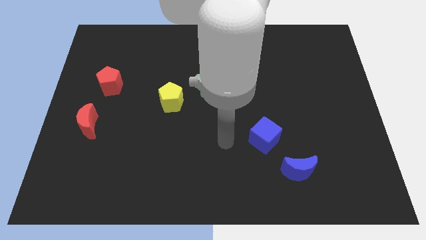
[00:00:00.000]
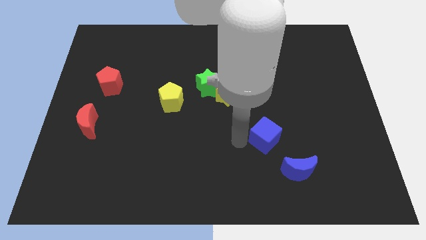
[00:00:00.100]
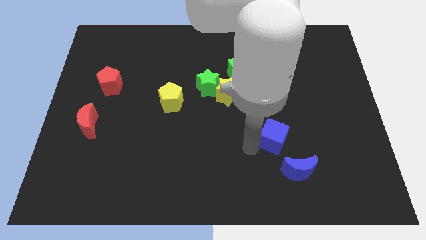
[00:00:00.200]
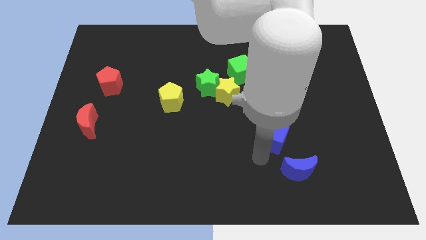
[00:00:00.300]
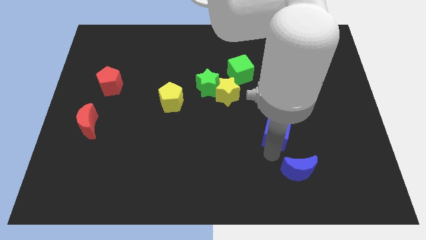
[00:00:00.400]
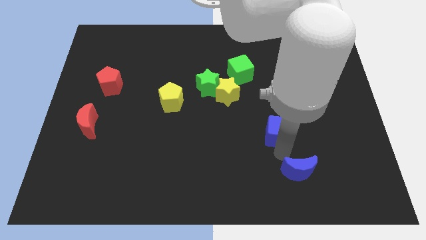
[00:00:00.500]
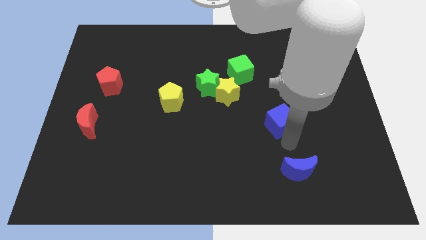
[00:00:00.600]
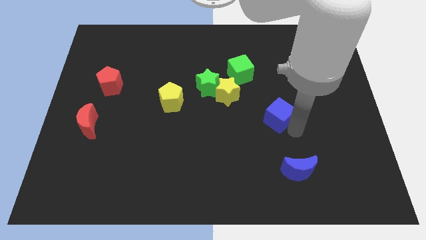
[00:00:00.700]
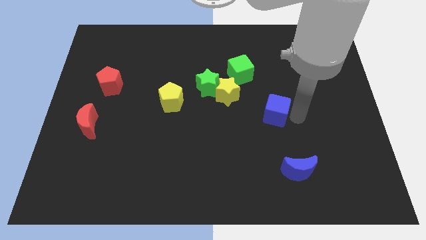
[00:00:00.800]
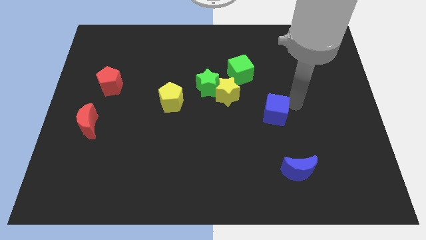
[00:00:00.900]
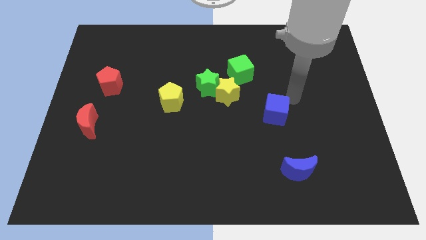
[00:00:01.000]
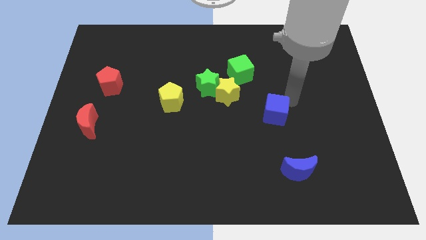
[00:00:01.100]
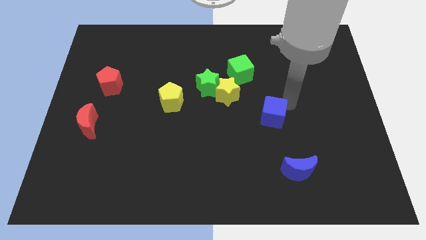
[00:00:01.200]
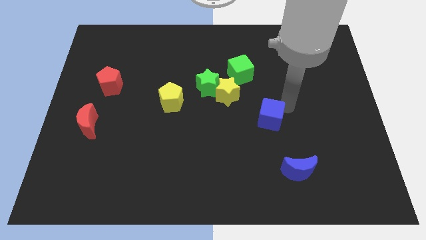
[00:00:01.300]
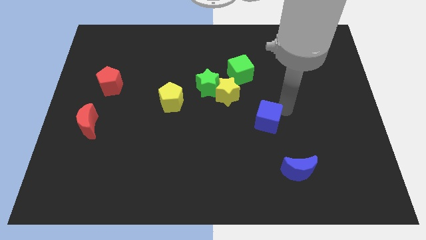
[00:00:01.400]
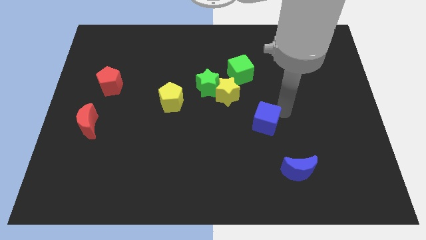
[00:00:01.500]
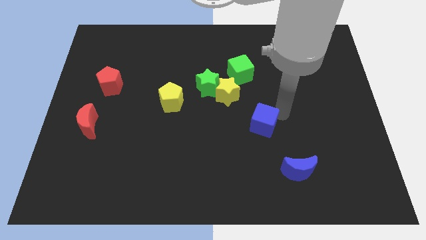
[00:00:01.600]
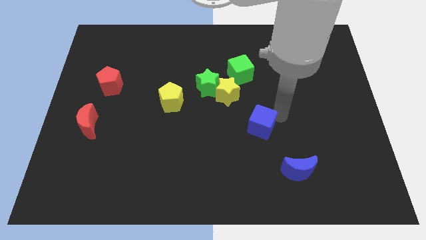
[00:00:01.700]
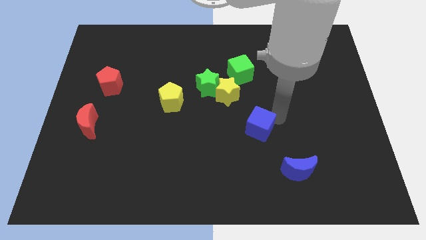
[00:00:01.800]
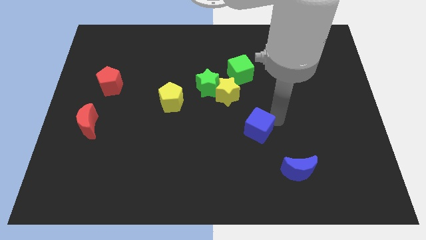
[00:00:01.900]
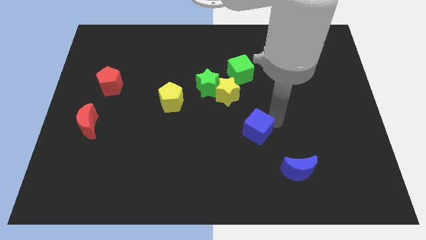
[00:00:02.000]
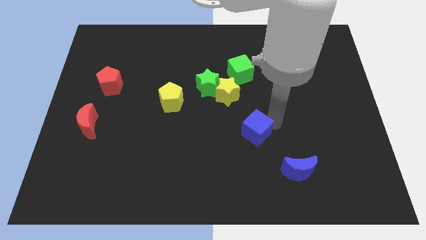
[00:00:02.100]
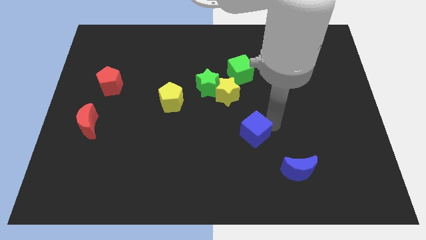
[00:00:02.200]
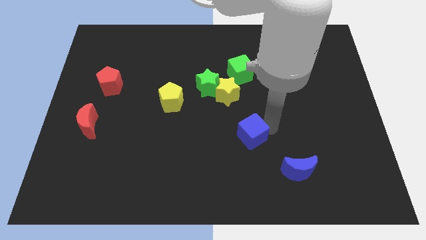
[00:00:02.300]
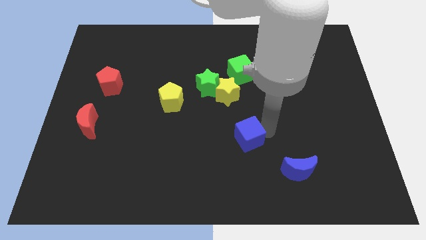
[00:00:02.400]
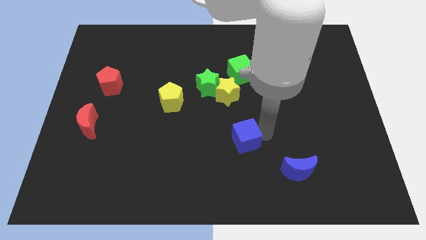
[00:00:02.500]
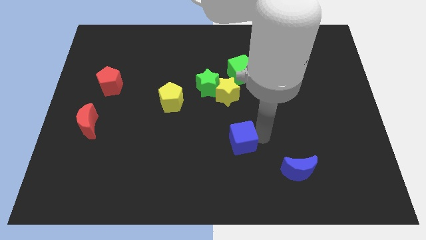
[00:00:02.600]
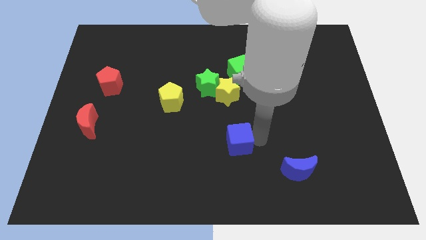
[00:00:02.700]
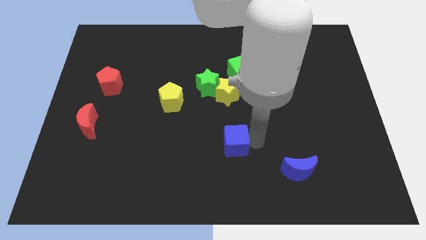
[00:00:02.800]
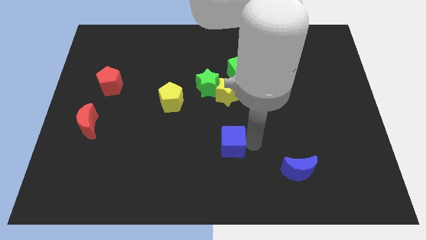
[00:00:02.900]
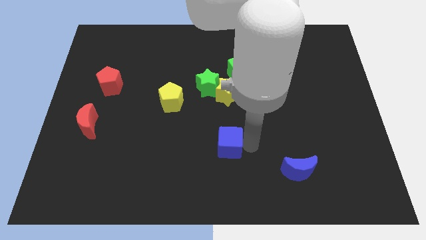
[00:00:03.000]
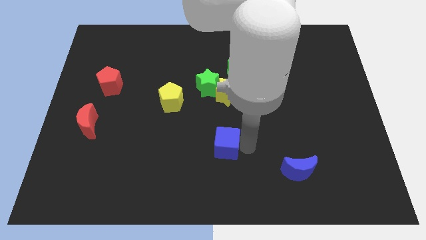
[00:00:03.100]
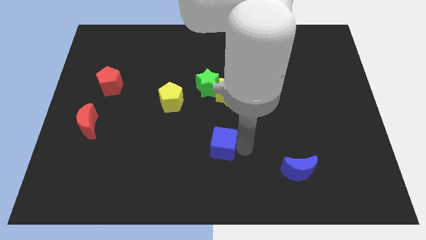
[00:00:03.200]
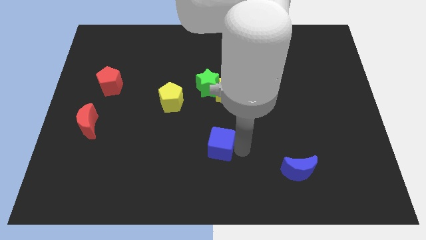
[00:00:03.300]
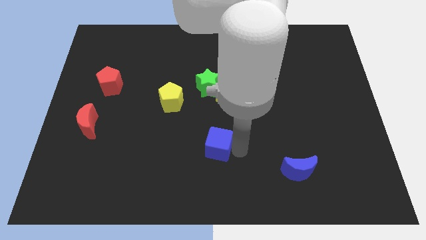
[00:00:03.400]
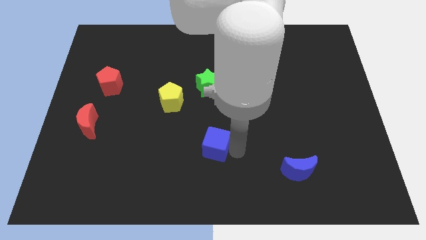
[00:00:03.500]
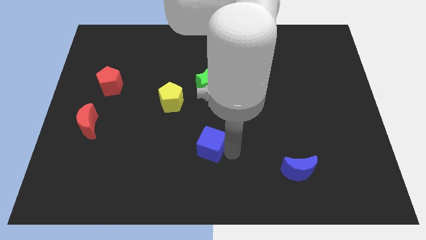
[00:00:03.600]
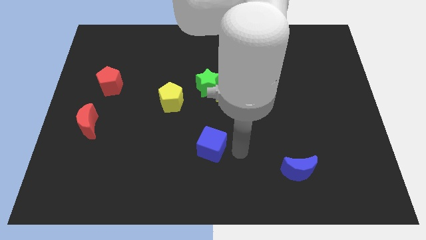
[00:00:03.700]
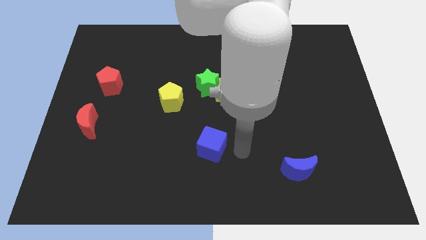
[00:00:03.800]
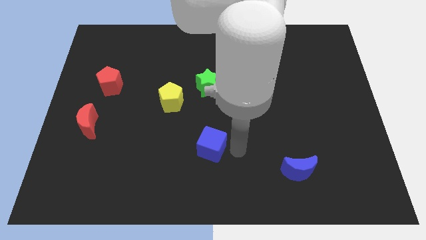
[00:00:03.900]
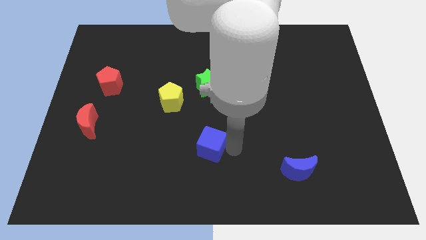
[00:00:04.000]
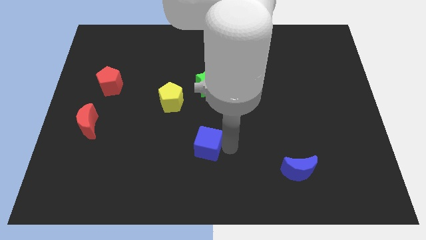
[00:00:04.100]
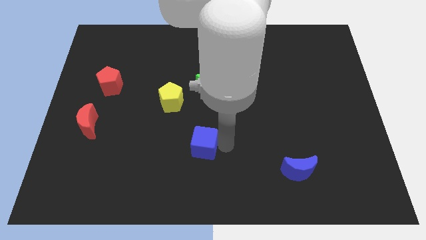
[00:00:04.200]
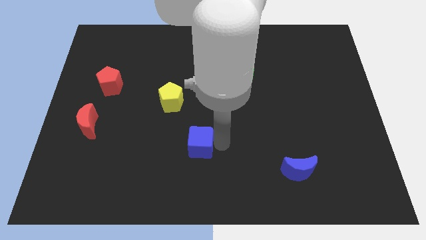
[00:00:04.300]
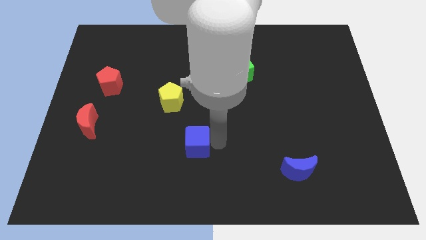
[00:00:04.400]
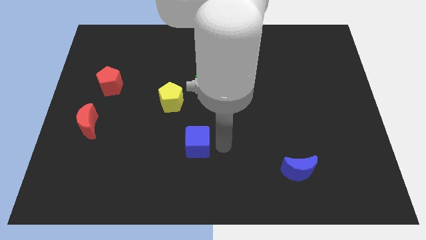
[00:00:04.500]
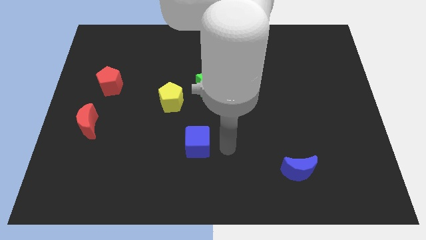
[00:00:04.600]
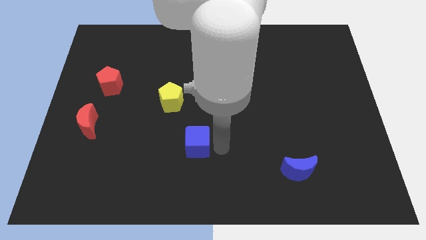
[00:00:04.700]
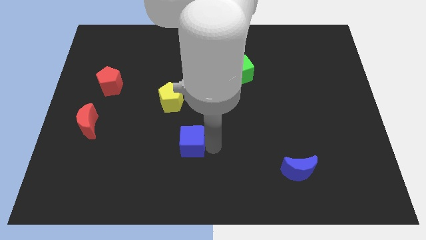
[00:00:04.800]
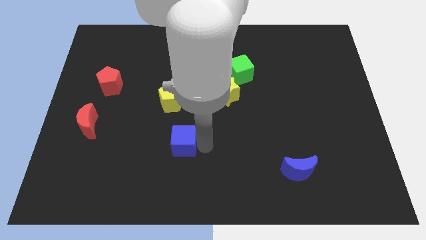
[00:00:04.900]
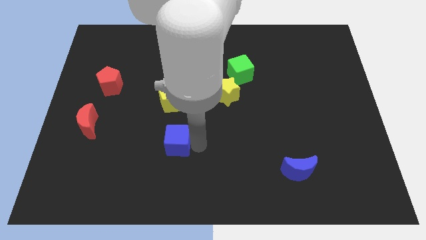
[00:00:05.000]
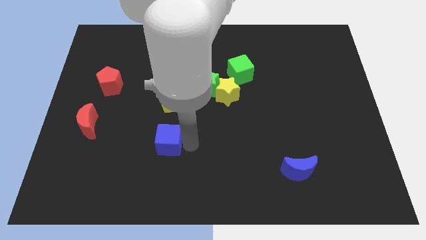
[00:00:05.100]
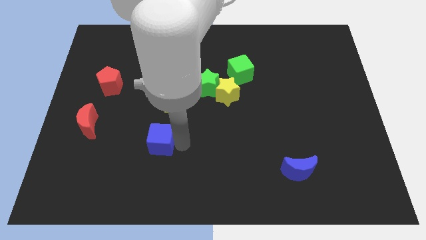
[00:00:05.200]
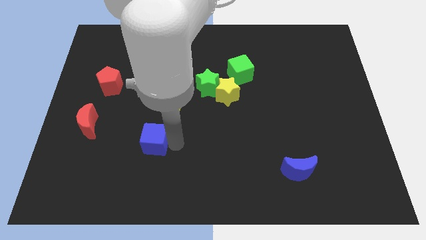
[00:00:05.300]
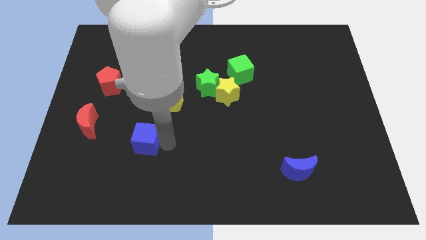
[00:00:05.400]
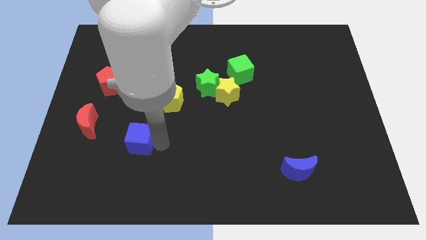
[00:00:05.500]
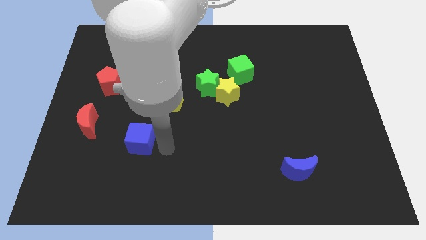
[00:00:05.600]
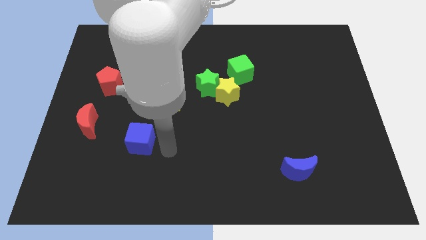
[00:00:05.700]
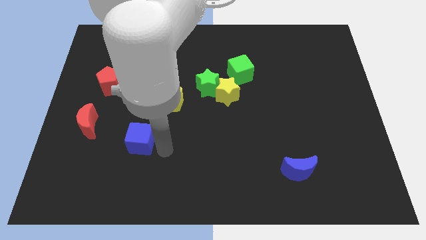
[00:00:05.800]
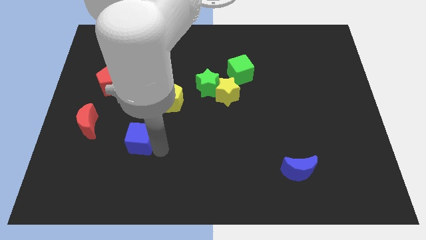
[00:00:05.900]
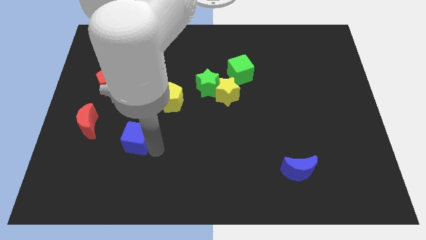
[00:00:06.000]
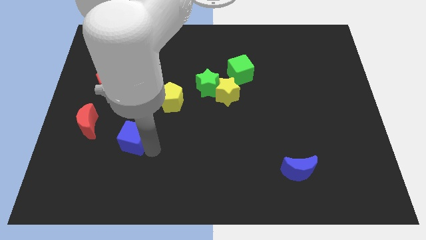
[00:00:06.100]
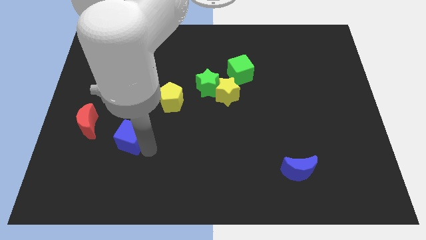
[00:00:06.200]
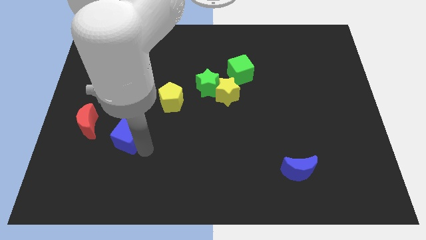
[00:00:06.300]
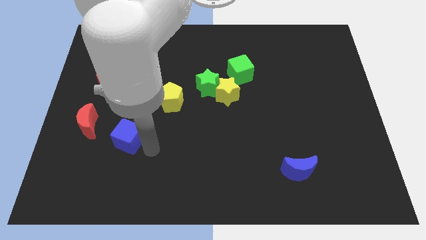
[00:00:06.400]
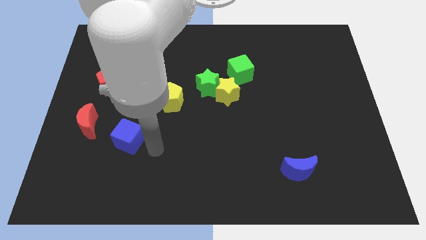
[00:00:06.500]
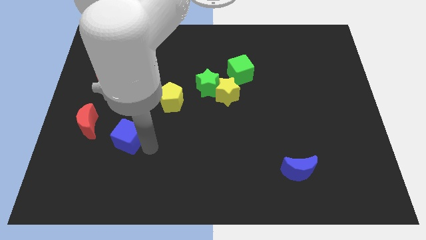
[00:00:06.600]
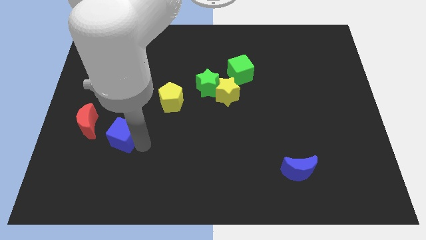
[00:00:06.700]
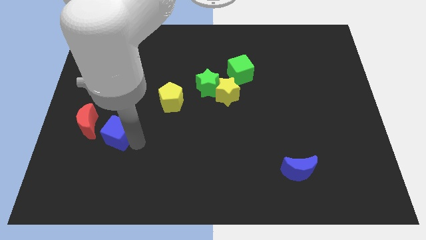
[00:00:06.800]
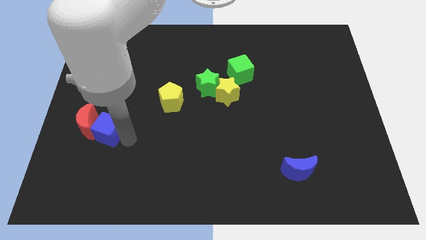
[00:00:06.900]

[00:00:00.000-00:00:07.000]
put the blue cube next to the red moon
